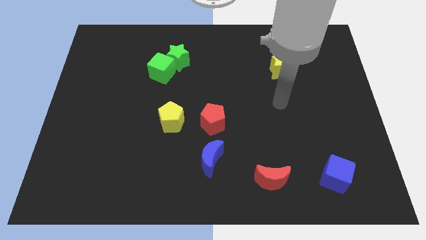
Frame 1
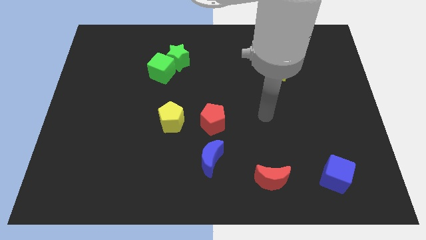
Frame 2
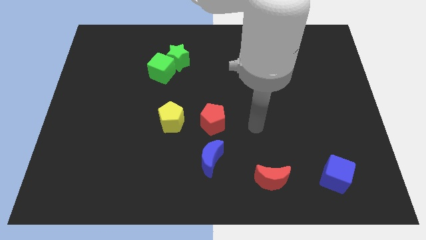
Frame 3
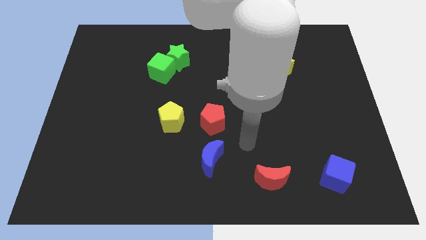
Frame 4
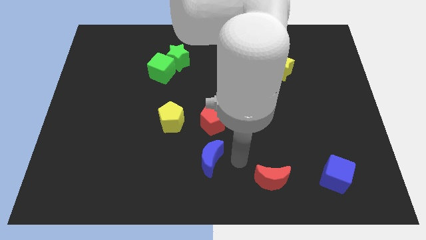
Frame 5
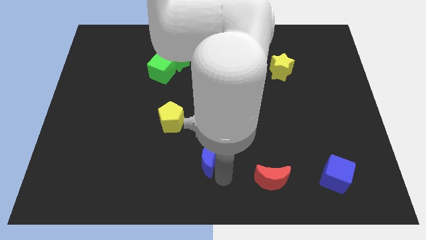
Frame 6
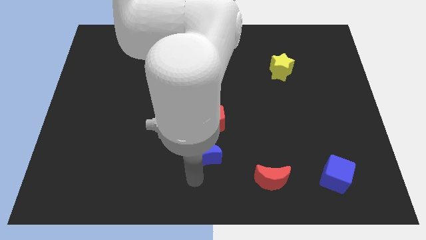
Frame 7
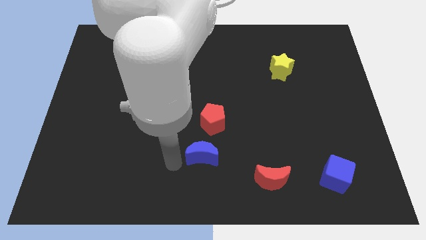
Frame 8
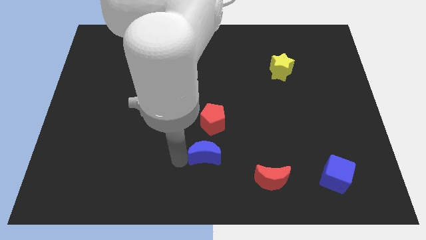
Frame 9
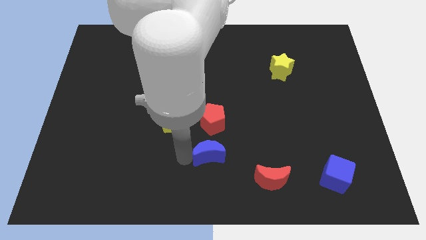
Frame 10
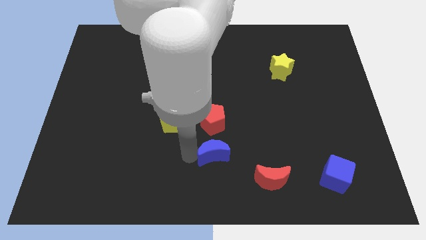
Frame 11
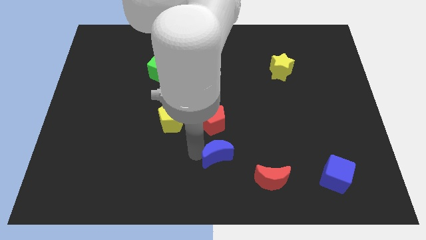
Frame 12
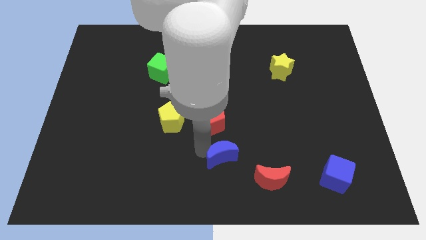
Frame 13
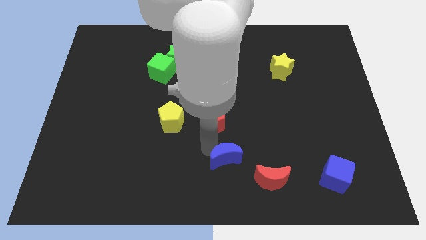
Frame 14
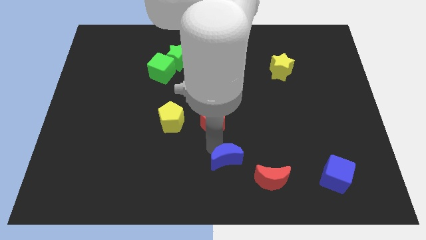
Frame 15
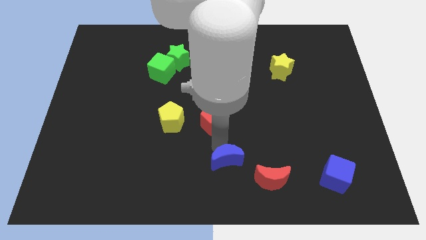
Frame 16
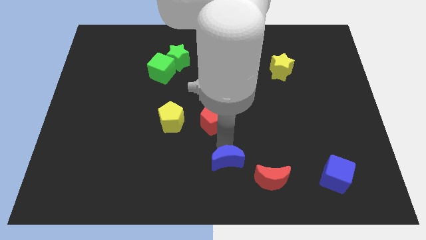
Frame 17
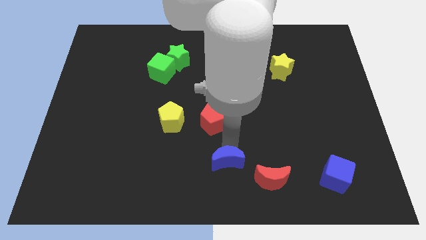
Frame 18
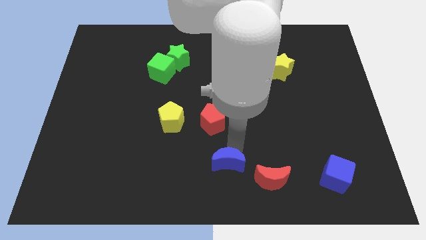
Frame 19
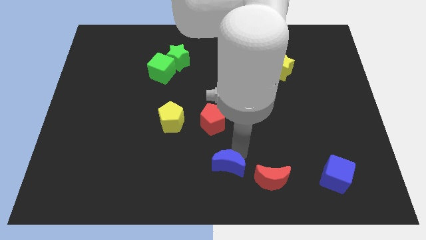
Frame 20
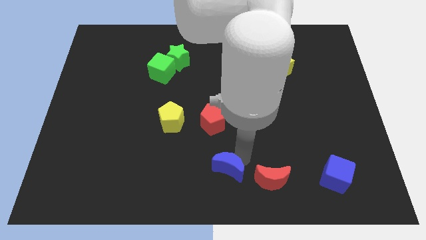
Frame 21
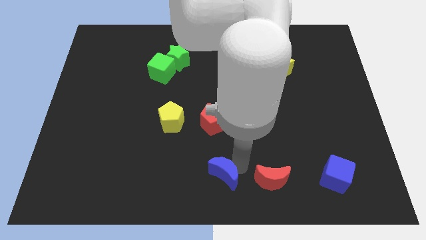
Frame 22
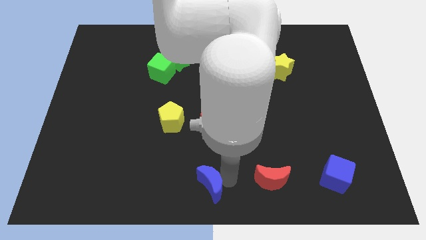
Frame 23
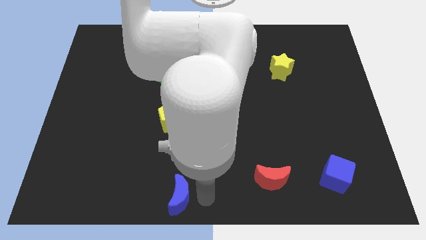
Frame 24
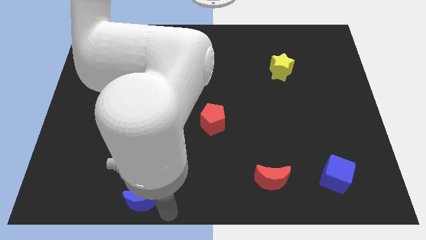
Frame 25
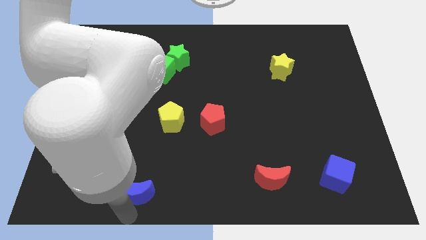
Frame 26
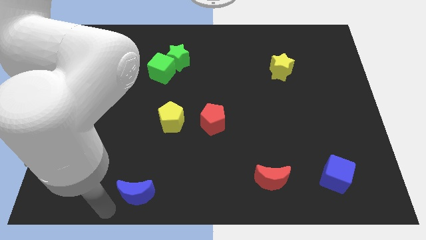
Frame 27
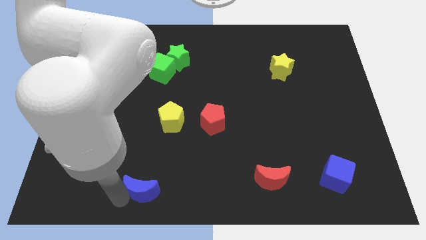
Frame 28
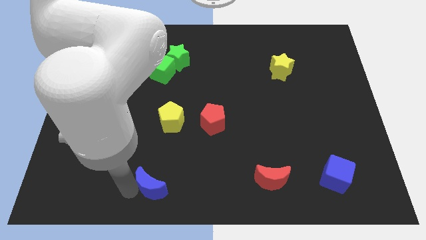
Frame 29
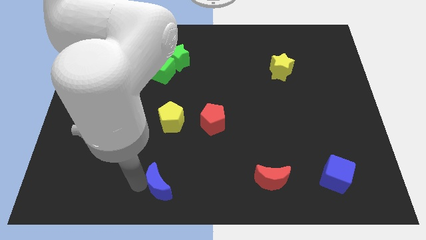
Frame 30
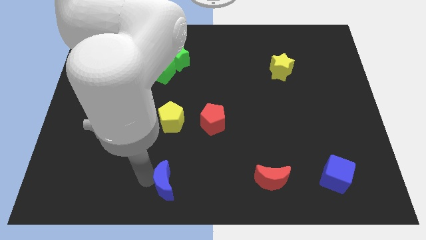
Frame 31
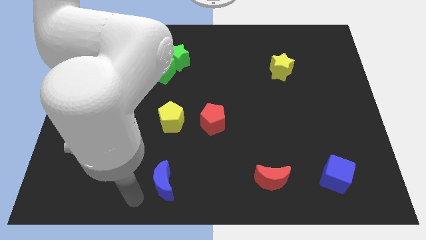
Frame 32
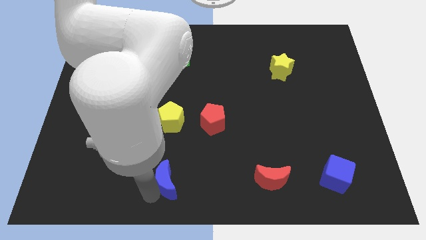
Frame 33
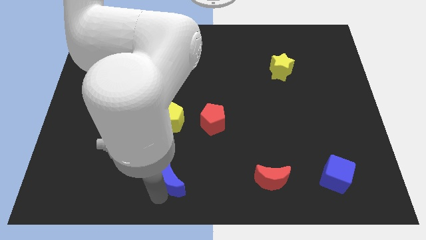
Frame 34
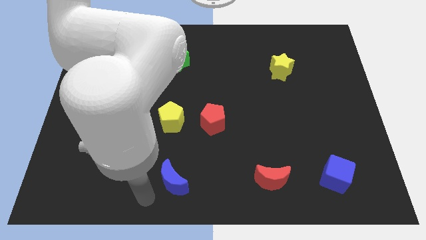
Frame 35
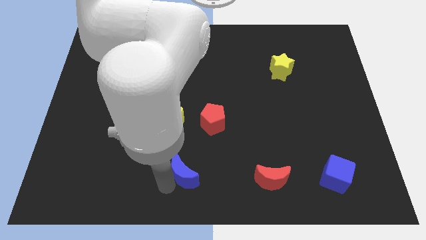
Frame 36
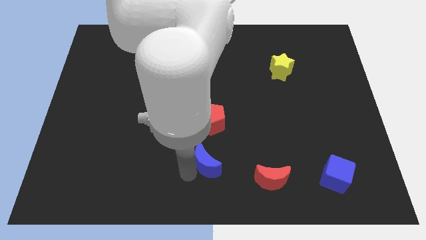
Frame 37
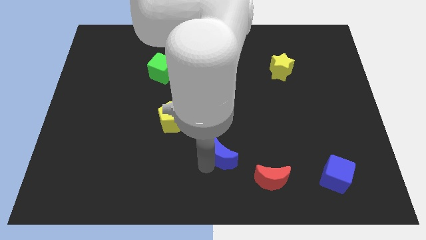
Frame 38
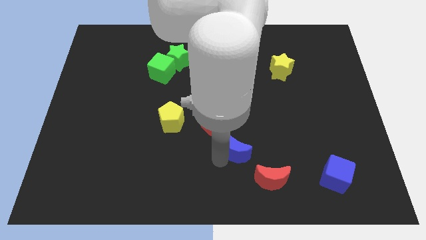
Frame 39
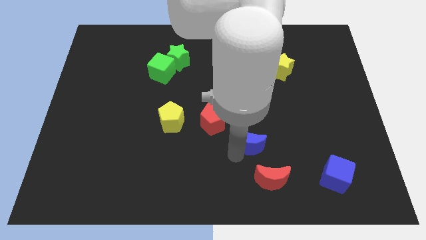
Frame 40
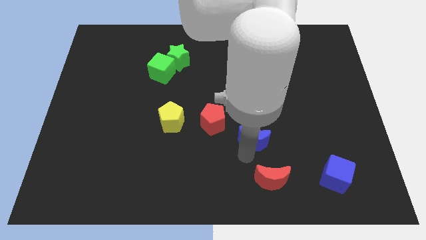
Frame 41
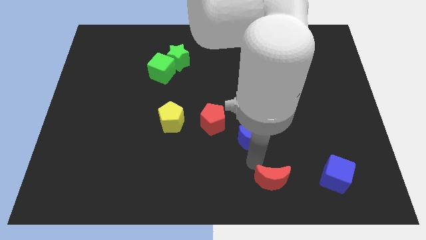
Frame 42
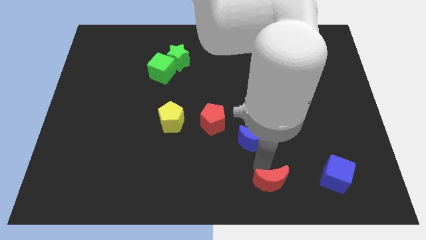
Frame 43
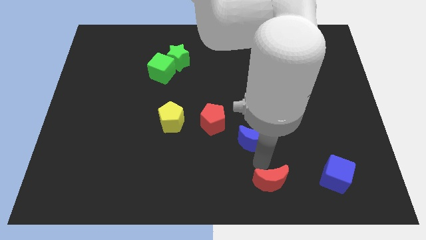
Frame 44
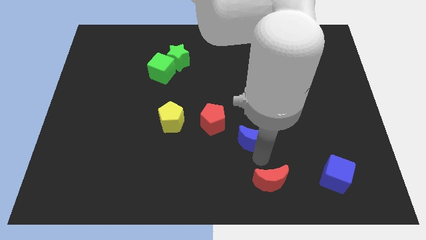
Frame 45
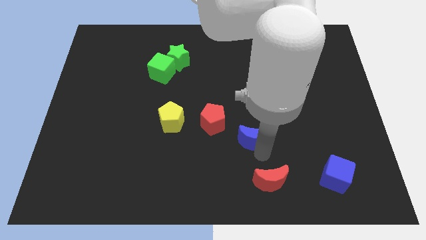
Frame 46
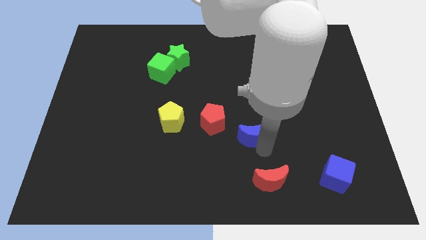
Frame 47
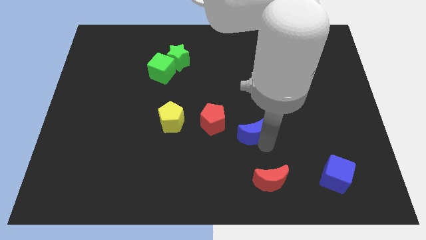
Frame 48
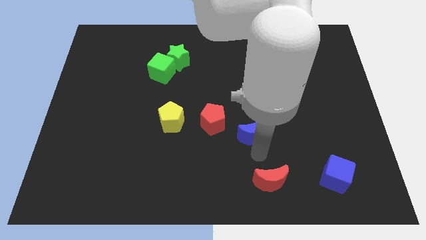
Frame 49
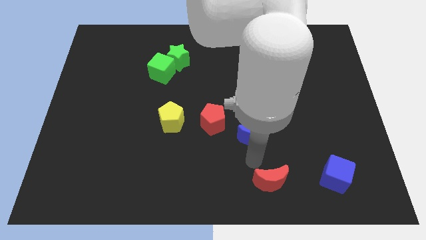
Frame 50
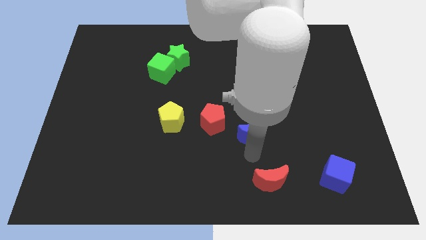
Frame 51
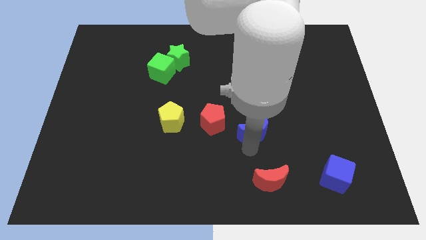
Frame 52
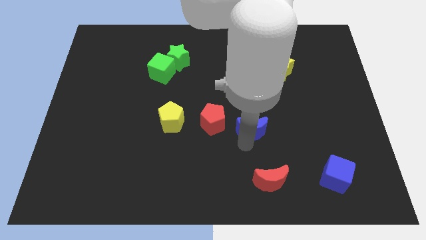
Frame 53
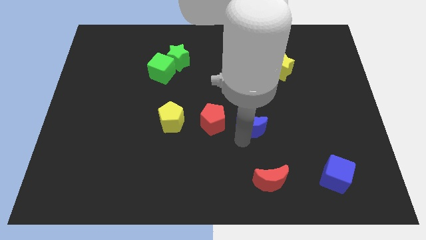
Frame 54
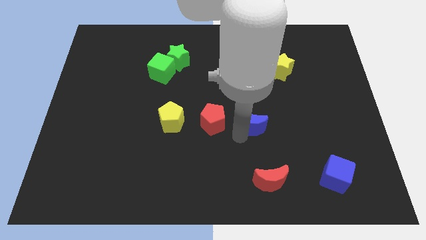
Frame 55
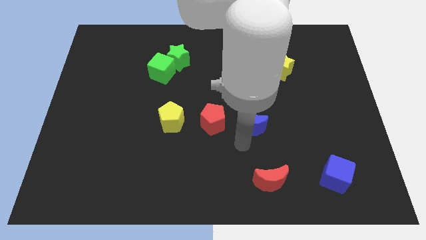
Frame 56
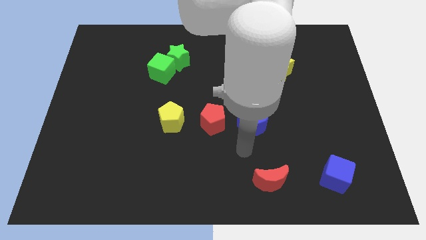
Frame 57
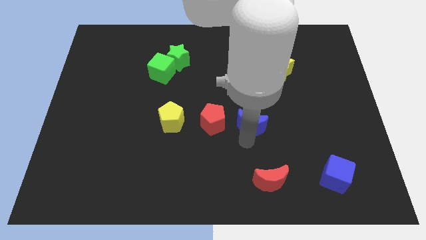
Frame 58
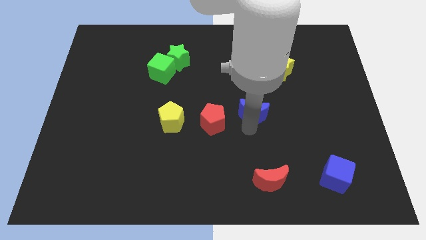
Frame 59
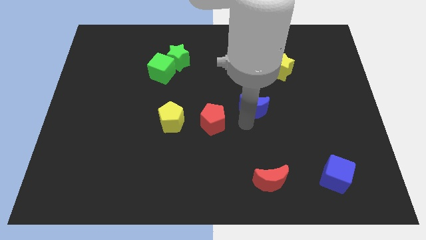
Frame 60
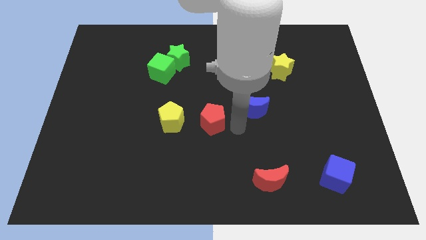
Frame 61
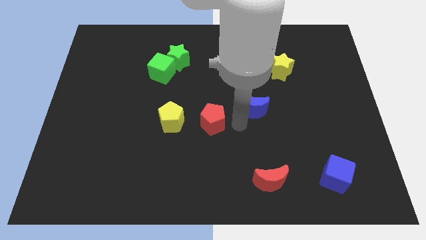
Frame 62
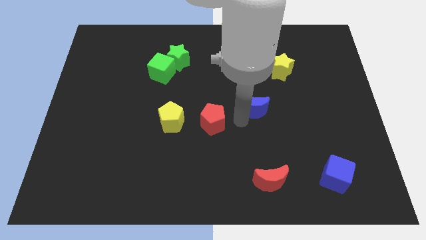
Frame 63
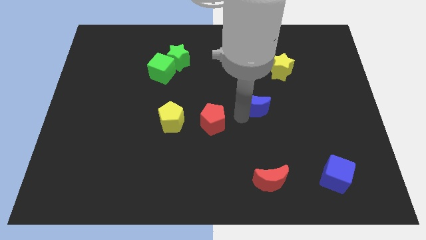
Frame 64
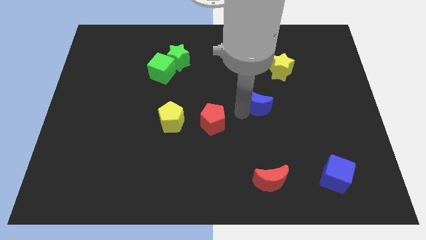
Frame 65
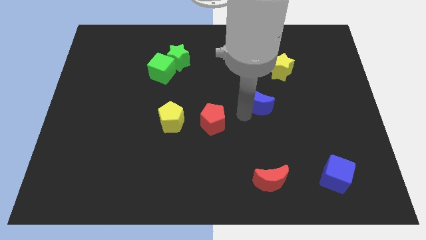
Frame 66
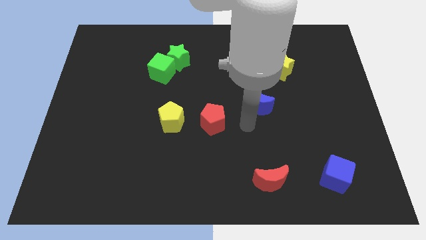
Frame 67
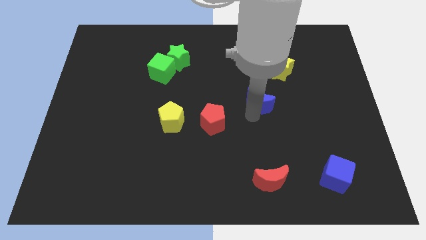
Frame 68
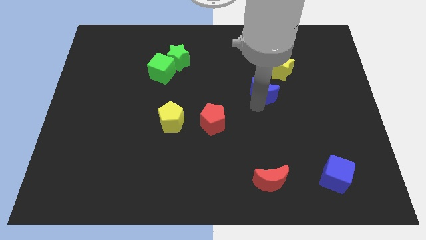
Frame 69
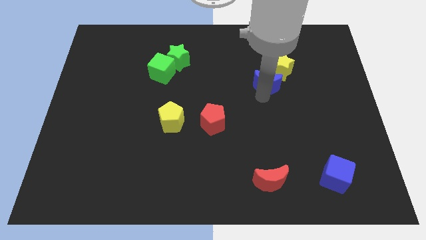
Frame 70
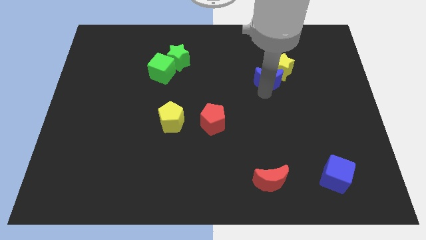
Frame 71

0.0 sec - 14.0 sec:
push the blue moon close to the yellow star

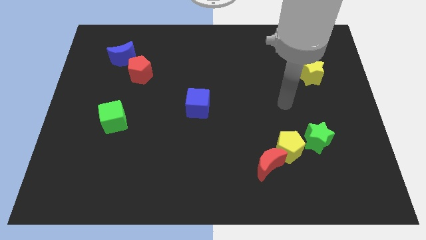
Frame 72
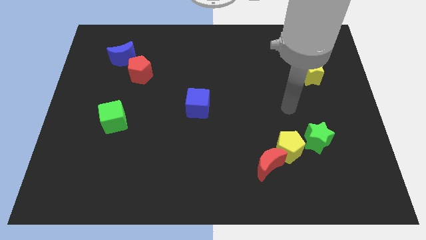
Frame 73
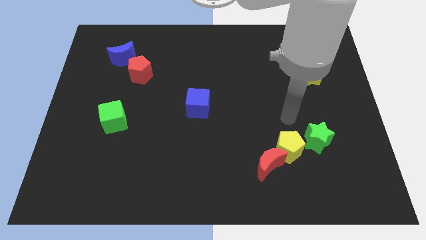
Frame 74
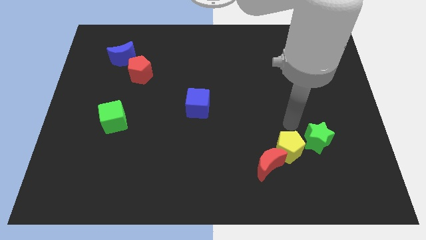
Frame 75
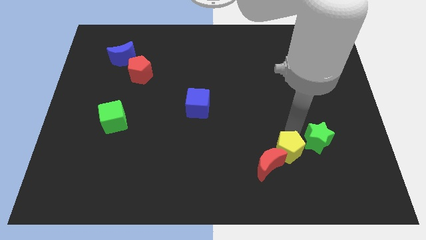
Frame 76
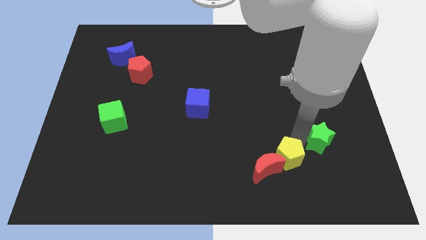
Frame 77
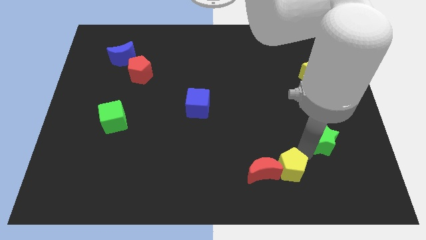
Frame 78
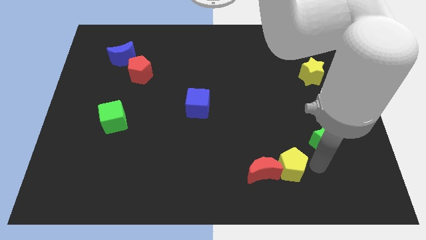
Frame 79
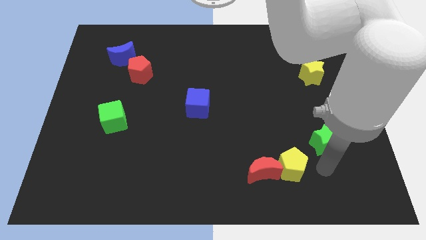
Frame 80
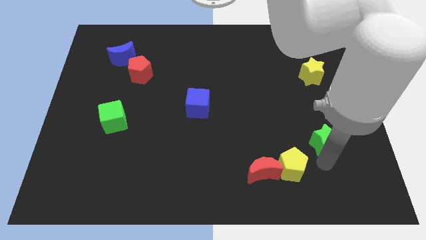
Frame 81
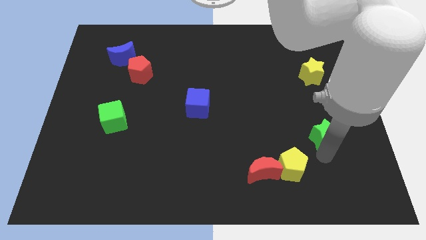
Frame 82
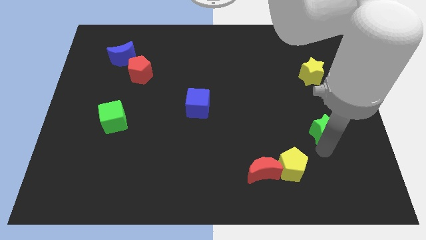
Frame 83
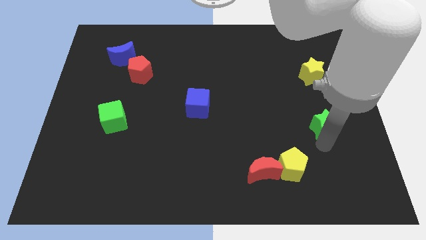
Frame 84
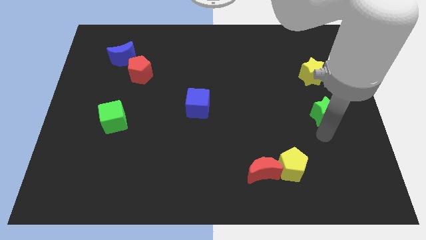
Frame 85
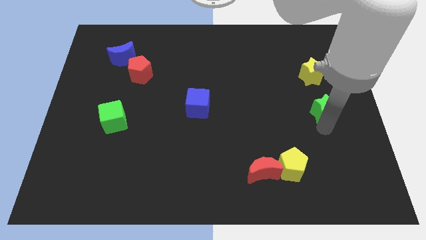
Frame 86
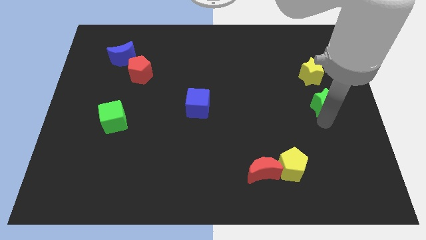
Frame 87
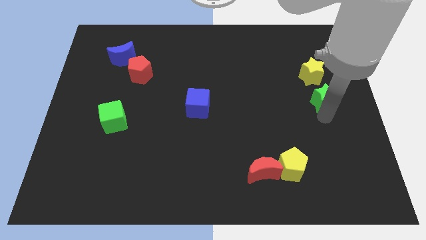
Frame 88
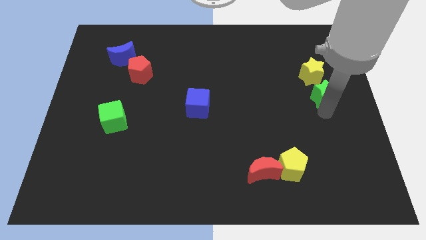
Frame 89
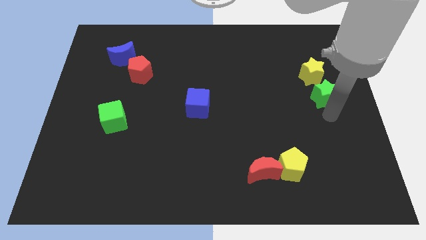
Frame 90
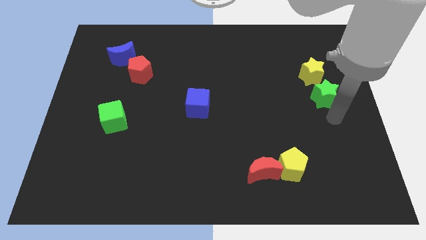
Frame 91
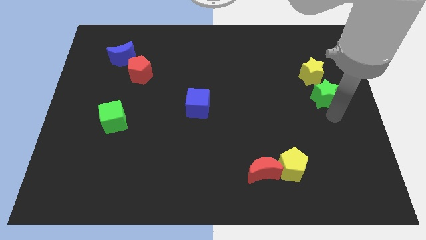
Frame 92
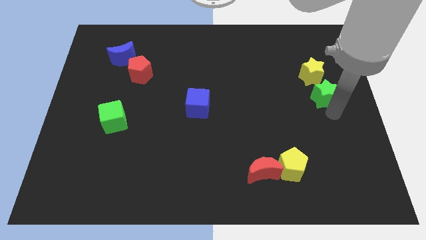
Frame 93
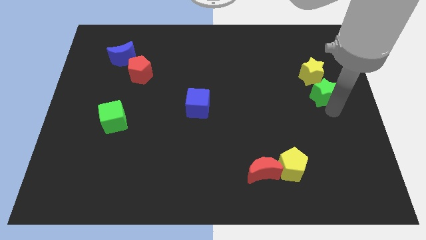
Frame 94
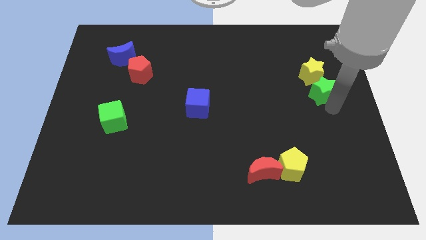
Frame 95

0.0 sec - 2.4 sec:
slide the green star next to the yellow star
